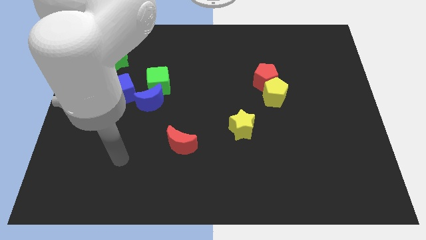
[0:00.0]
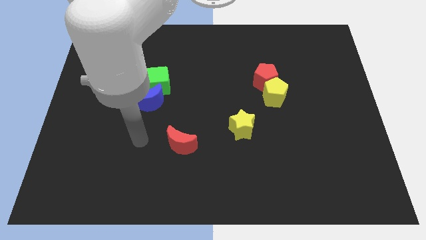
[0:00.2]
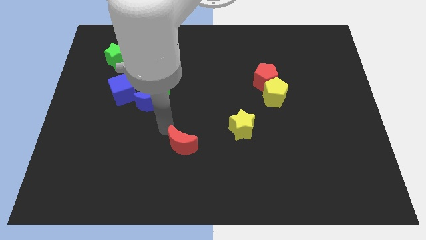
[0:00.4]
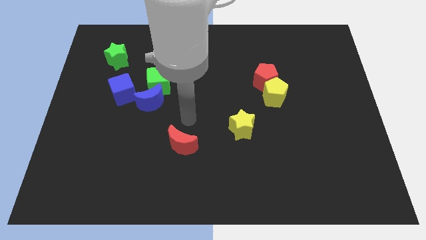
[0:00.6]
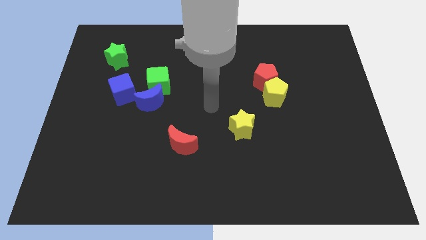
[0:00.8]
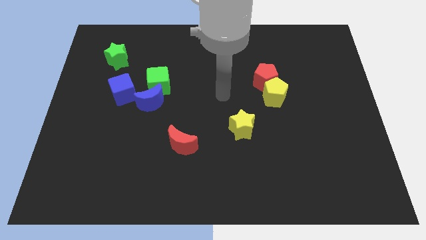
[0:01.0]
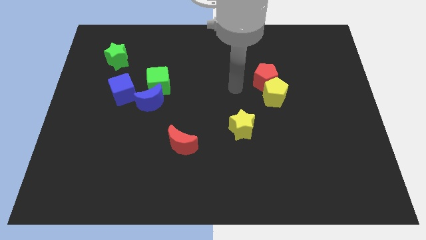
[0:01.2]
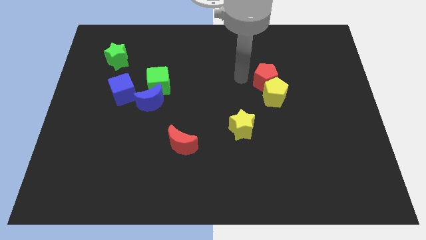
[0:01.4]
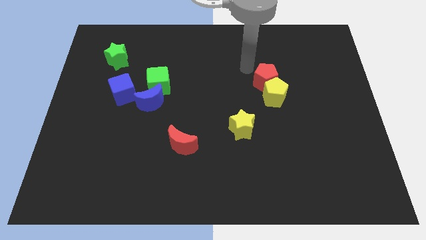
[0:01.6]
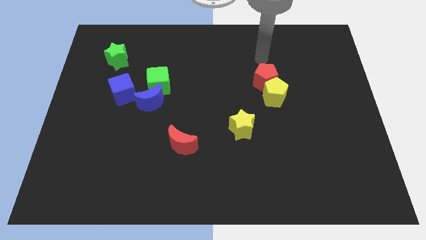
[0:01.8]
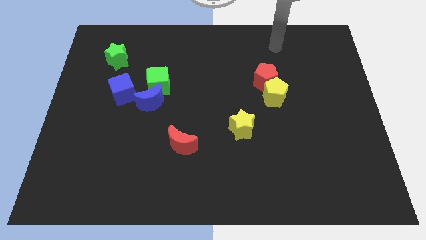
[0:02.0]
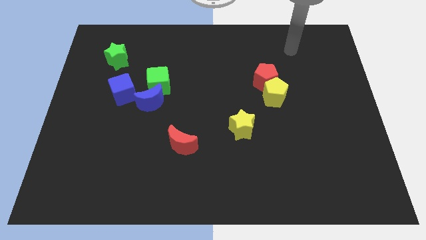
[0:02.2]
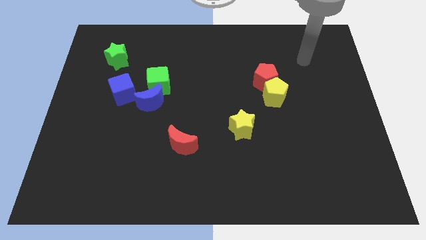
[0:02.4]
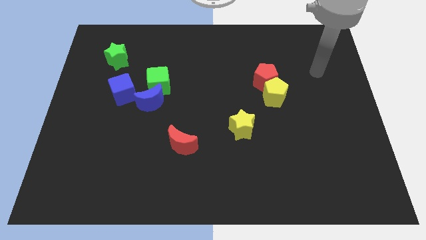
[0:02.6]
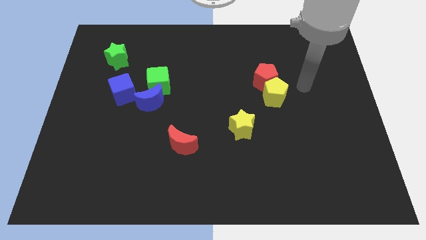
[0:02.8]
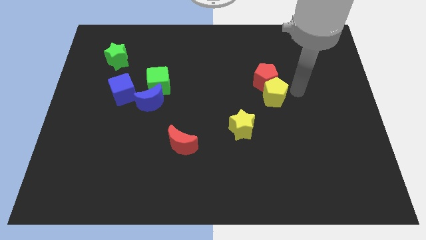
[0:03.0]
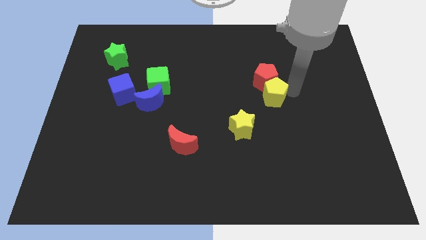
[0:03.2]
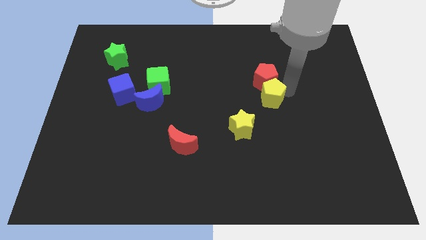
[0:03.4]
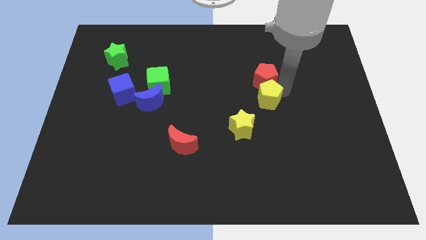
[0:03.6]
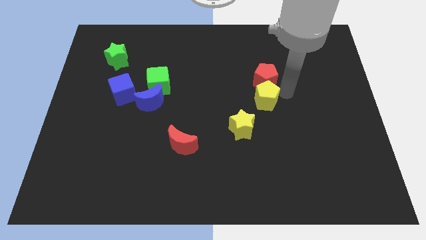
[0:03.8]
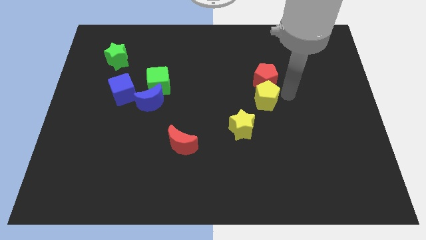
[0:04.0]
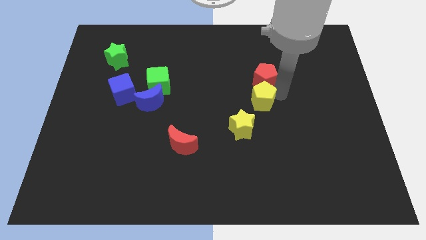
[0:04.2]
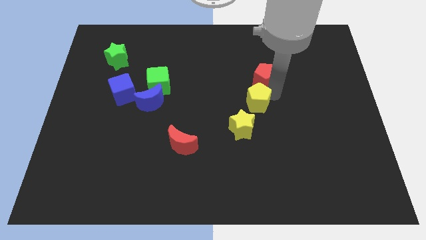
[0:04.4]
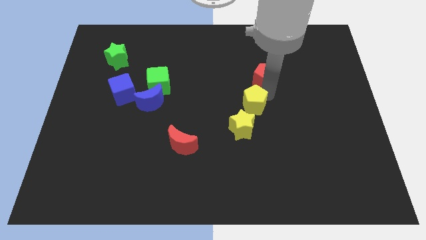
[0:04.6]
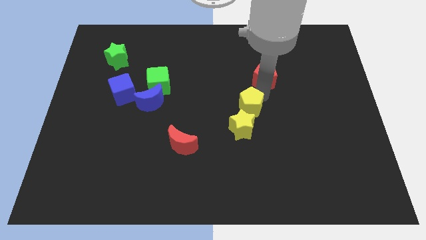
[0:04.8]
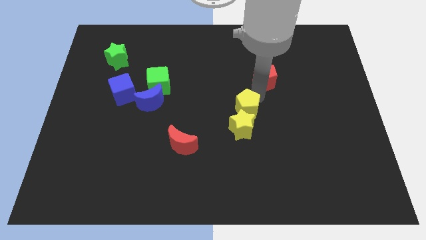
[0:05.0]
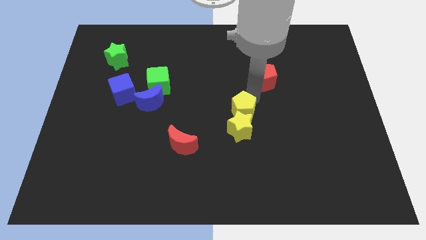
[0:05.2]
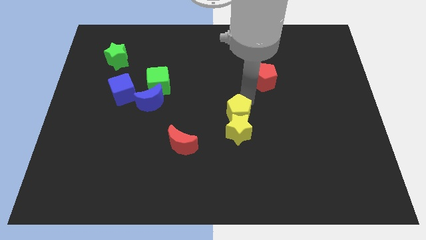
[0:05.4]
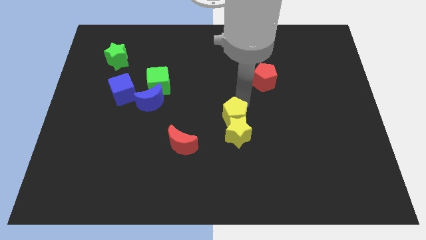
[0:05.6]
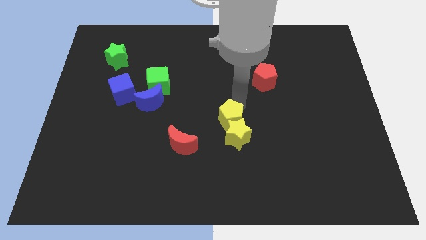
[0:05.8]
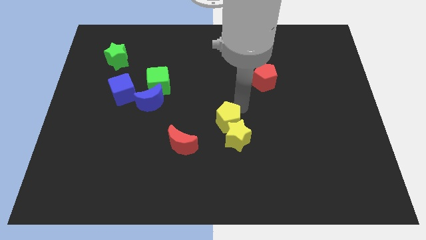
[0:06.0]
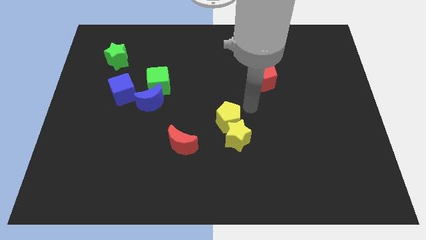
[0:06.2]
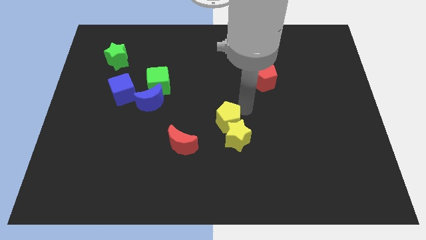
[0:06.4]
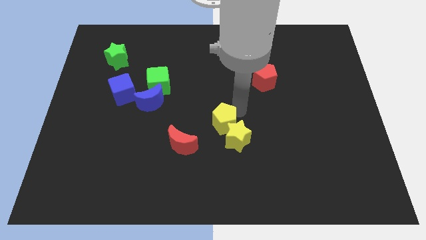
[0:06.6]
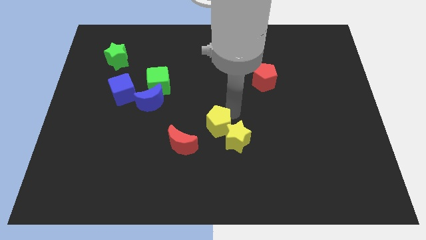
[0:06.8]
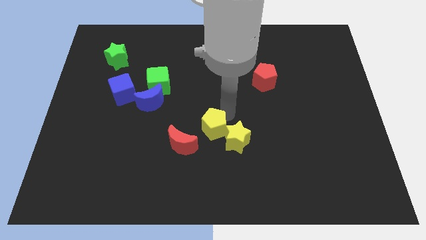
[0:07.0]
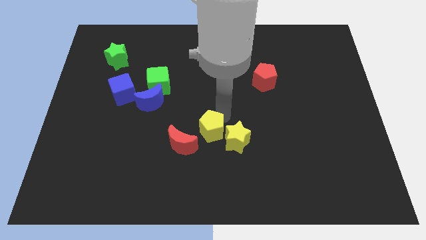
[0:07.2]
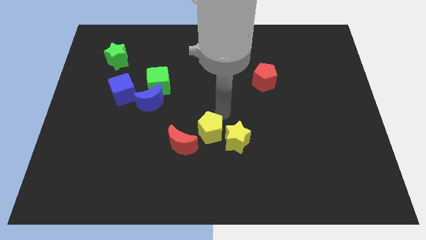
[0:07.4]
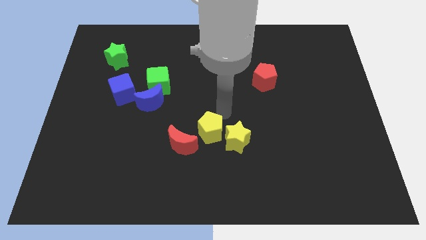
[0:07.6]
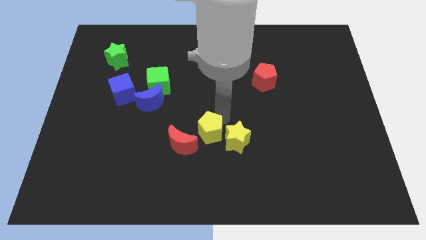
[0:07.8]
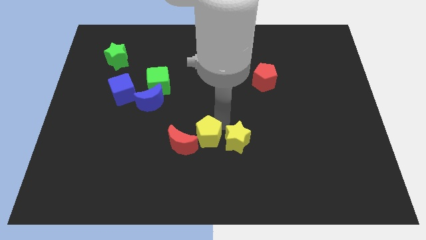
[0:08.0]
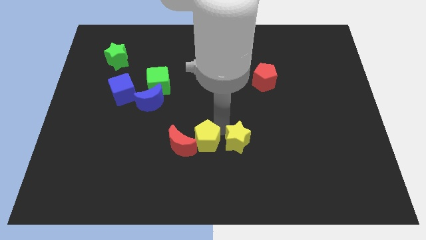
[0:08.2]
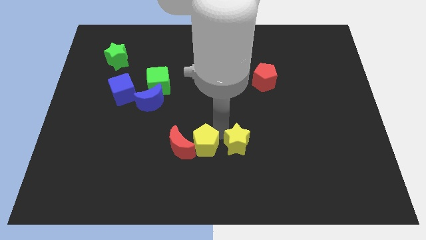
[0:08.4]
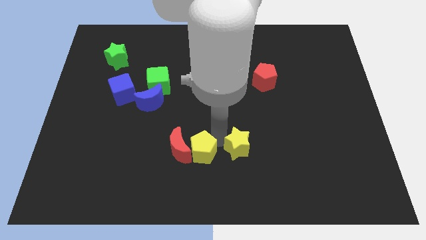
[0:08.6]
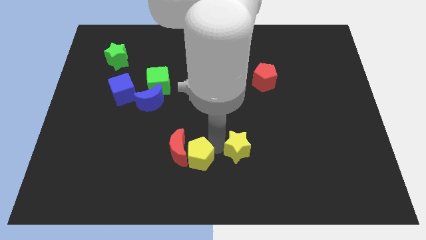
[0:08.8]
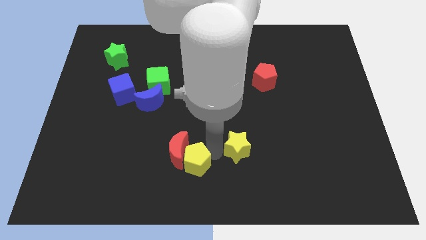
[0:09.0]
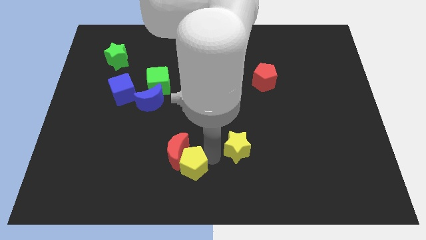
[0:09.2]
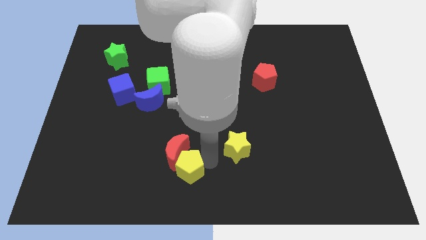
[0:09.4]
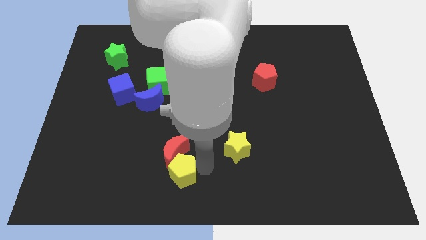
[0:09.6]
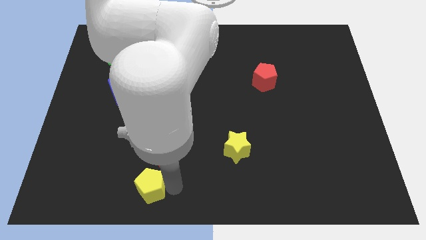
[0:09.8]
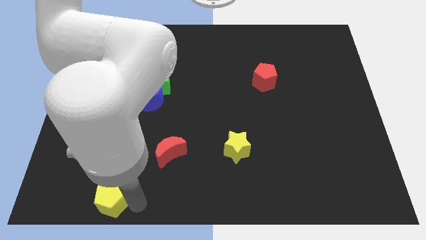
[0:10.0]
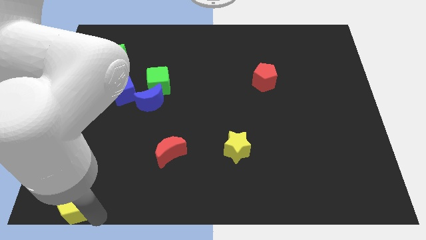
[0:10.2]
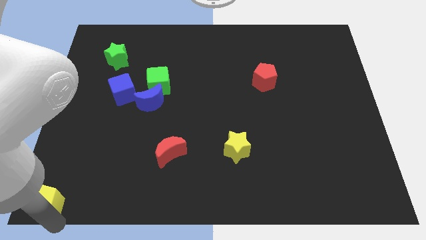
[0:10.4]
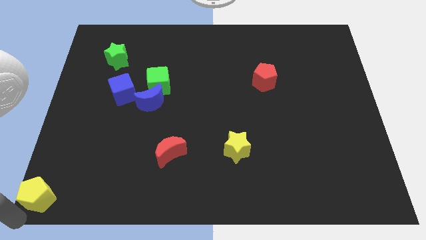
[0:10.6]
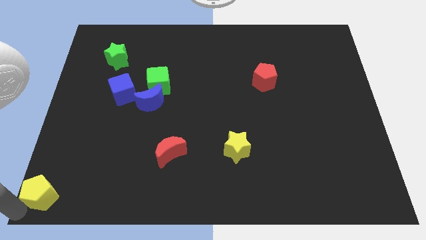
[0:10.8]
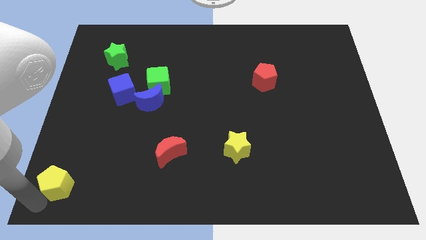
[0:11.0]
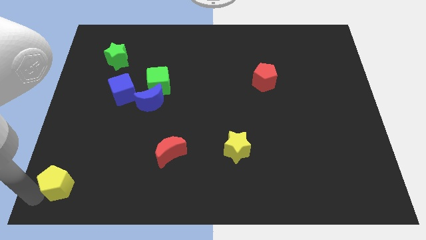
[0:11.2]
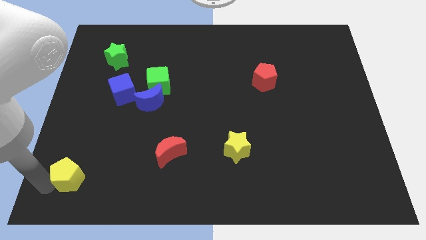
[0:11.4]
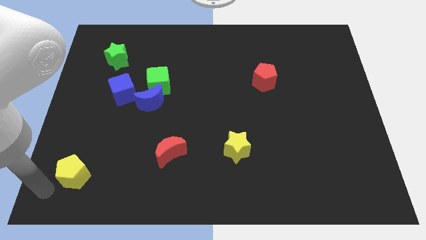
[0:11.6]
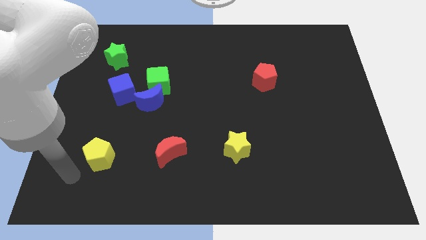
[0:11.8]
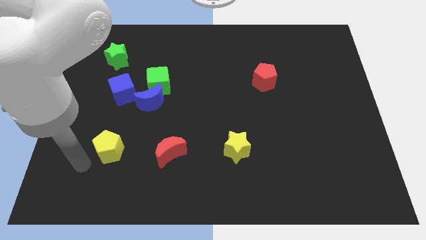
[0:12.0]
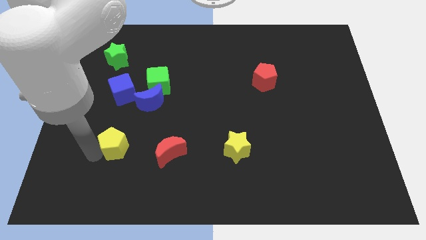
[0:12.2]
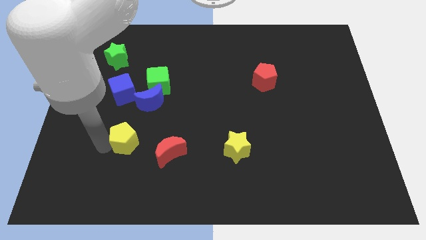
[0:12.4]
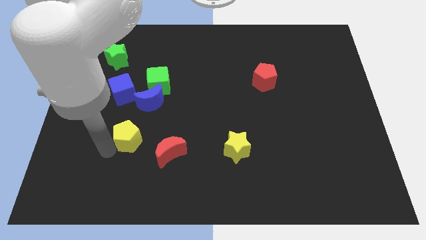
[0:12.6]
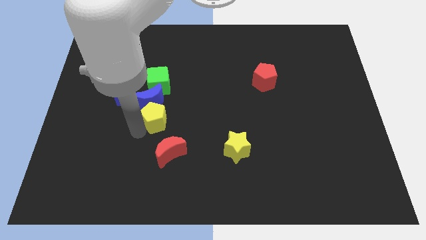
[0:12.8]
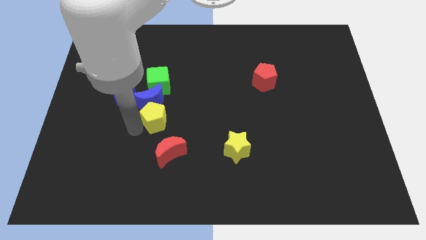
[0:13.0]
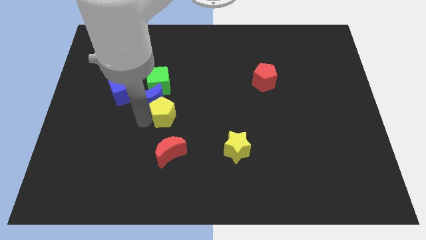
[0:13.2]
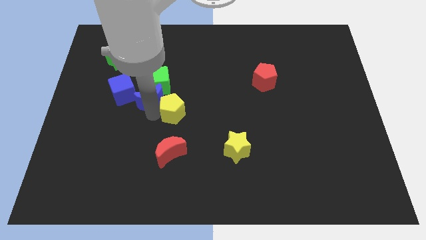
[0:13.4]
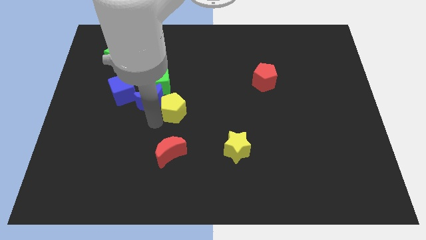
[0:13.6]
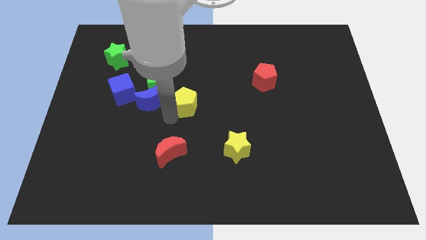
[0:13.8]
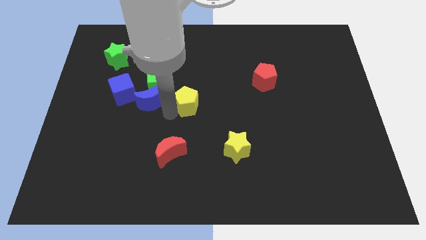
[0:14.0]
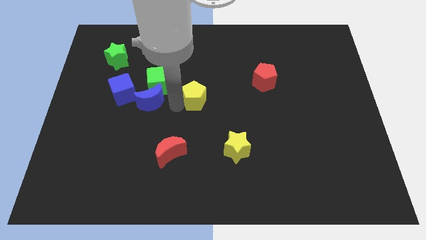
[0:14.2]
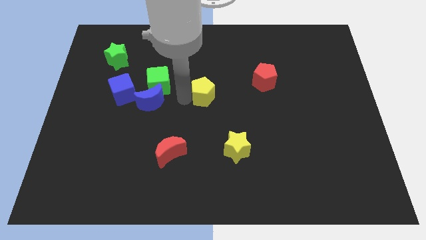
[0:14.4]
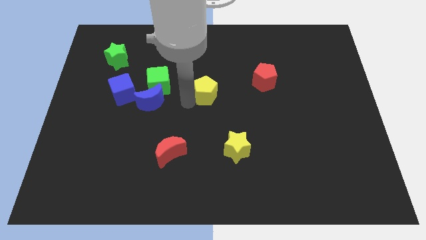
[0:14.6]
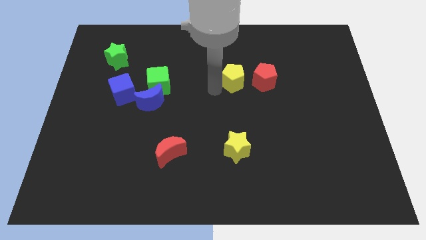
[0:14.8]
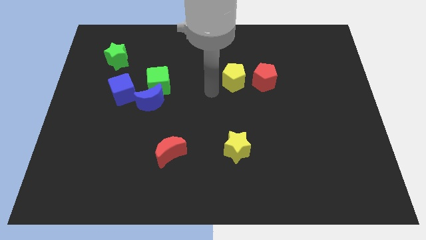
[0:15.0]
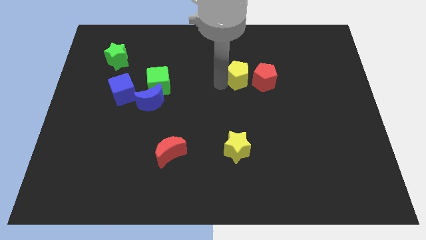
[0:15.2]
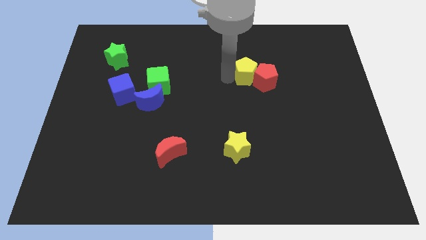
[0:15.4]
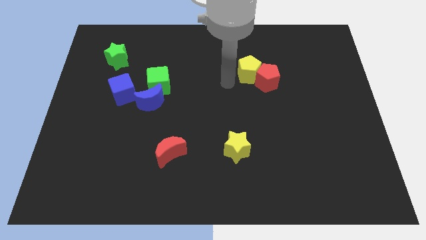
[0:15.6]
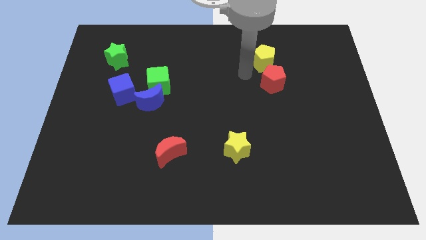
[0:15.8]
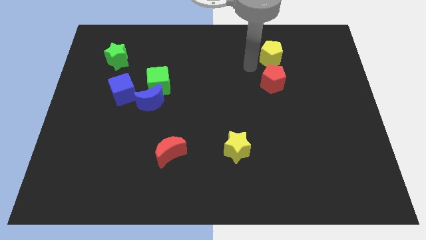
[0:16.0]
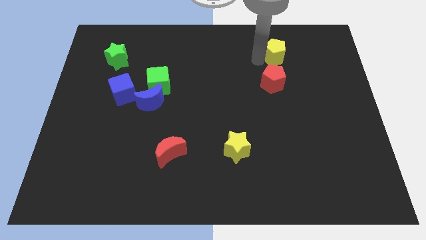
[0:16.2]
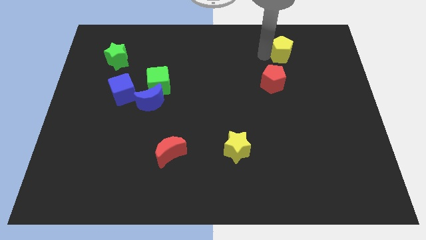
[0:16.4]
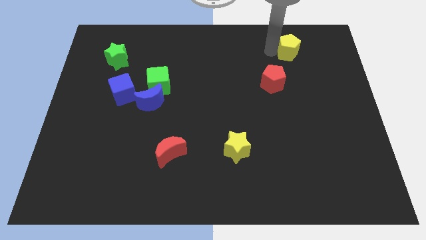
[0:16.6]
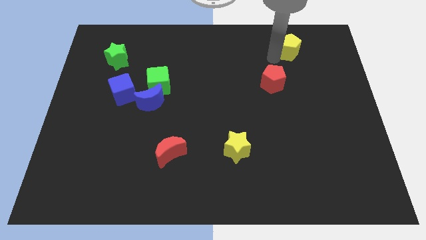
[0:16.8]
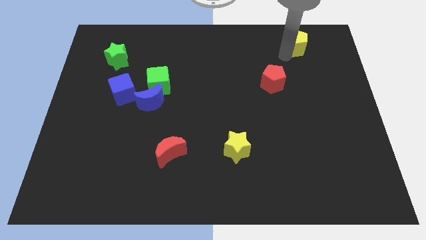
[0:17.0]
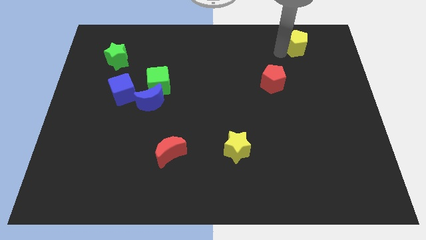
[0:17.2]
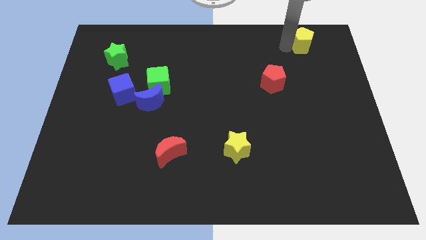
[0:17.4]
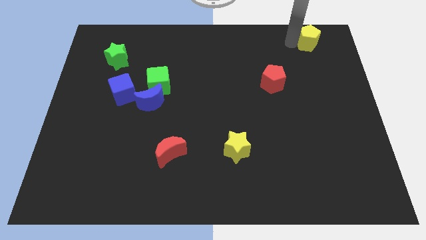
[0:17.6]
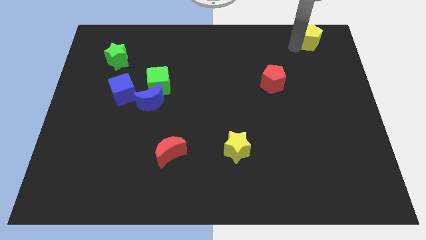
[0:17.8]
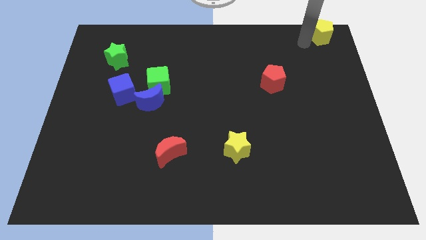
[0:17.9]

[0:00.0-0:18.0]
slide the yellow pentagon to the top right corner
